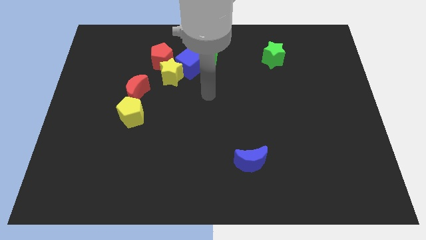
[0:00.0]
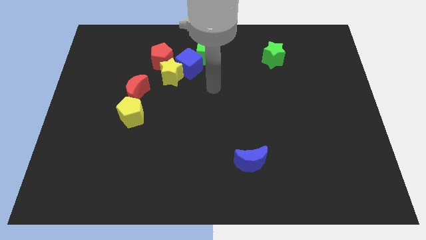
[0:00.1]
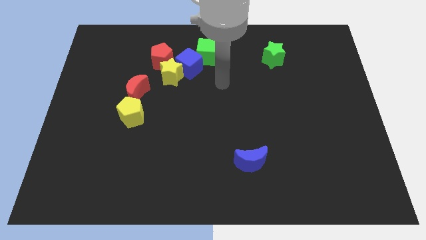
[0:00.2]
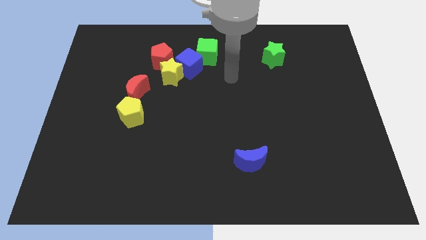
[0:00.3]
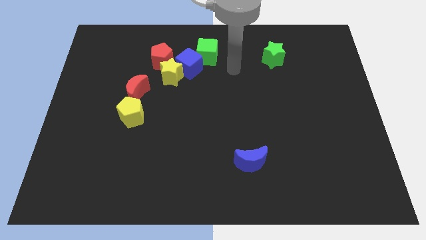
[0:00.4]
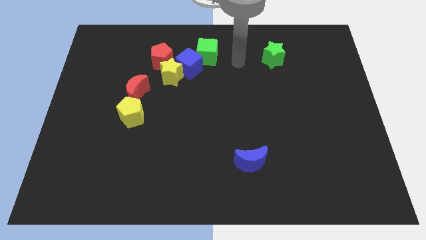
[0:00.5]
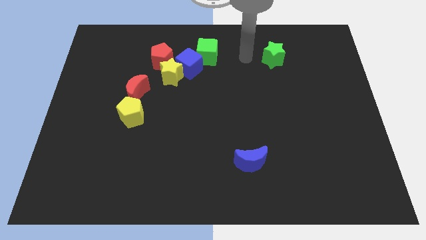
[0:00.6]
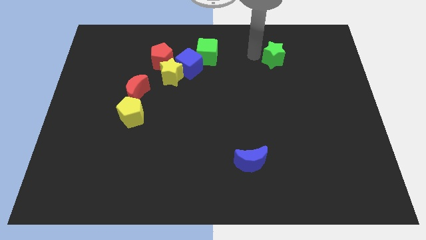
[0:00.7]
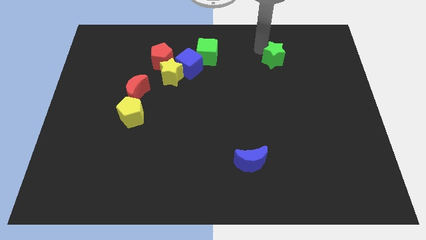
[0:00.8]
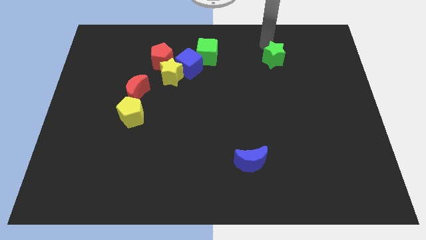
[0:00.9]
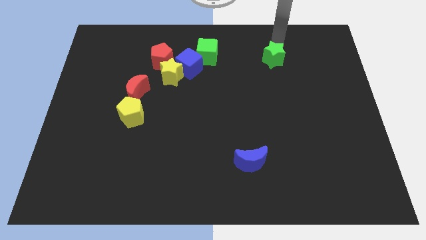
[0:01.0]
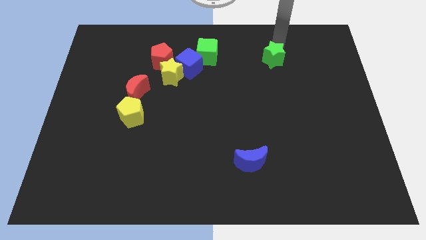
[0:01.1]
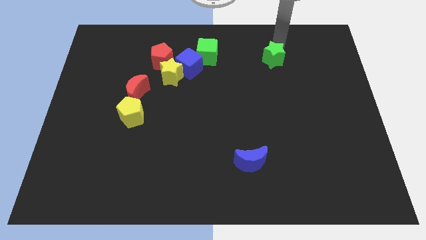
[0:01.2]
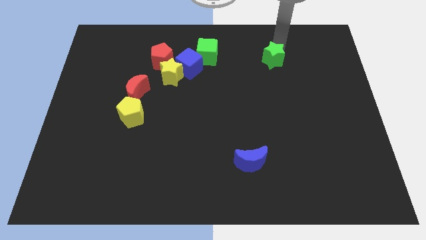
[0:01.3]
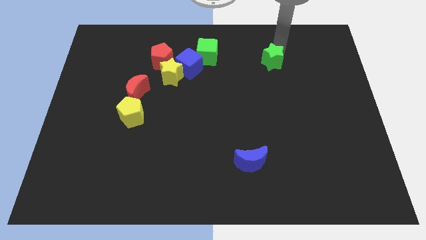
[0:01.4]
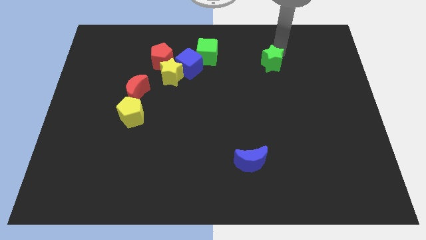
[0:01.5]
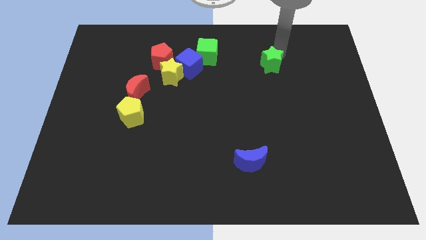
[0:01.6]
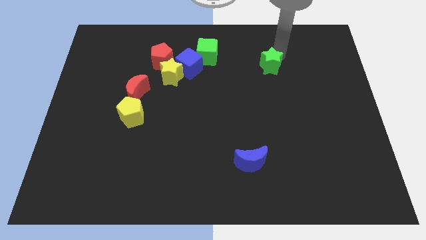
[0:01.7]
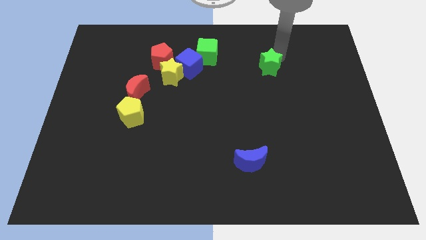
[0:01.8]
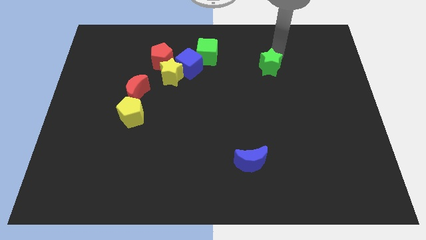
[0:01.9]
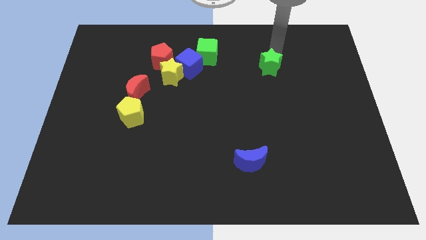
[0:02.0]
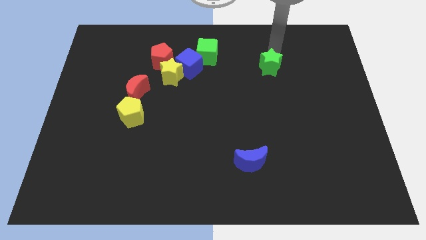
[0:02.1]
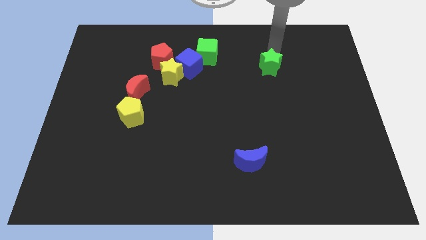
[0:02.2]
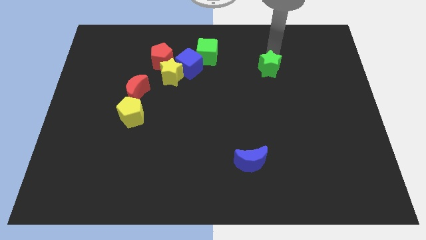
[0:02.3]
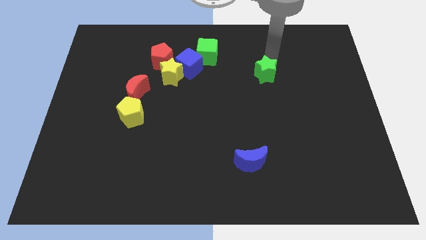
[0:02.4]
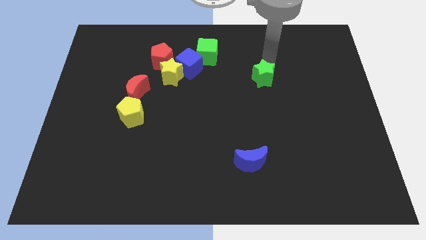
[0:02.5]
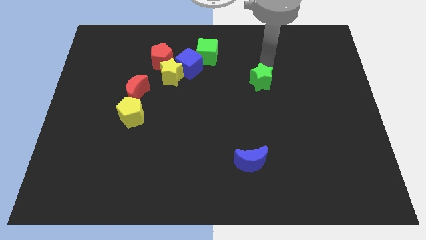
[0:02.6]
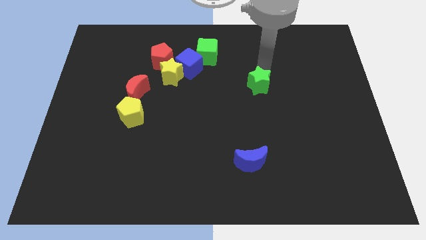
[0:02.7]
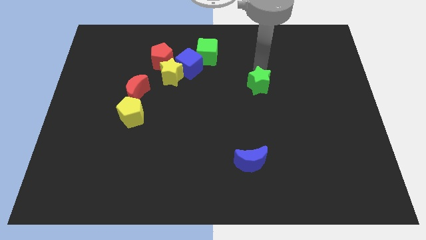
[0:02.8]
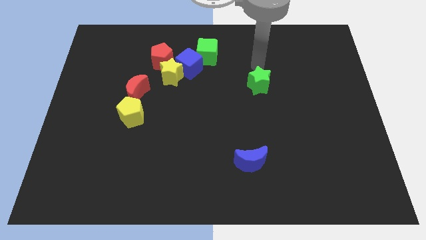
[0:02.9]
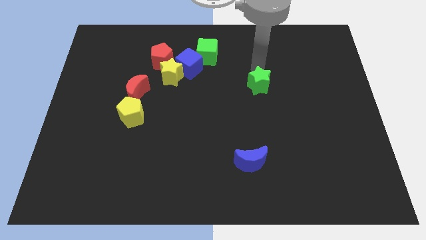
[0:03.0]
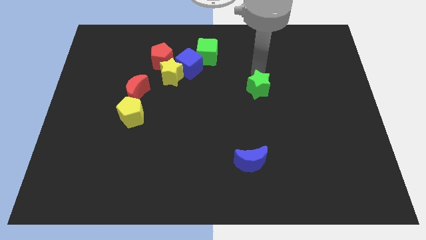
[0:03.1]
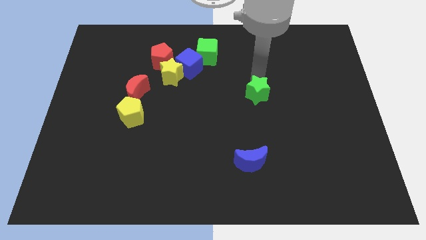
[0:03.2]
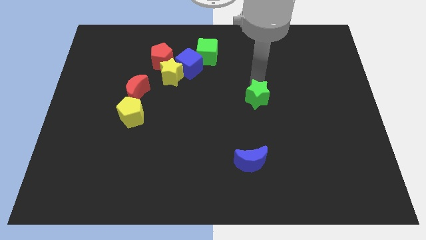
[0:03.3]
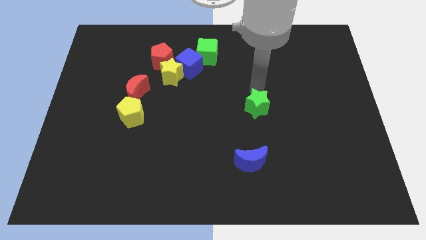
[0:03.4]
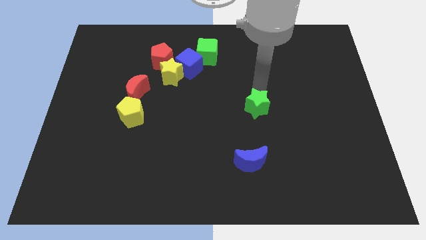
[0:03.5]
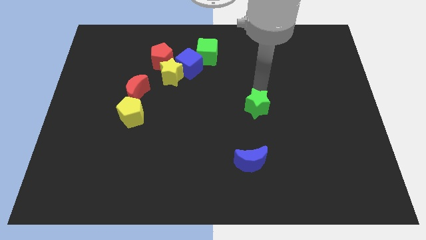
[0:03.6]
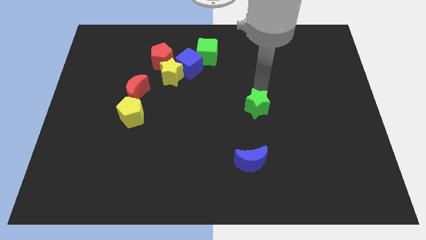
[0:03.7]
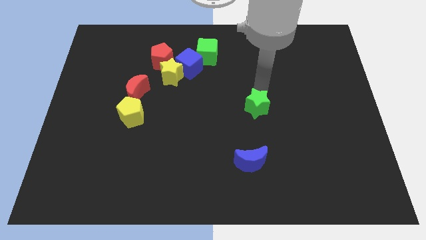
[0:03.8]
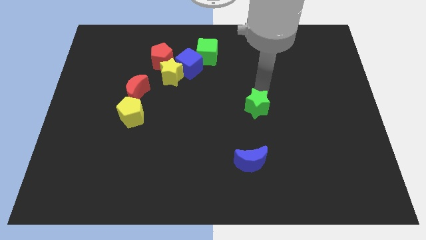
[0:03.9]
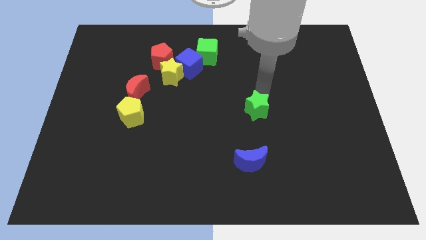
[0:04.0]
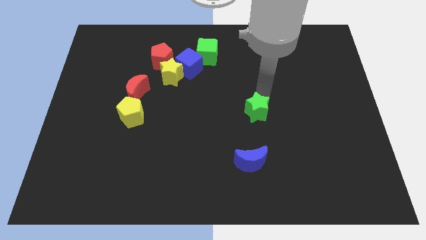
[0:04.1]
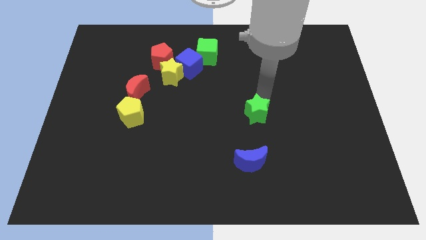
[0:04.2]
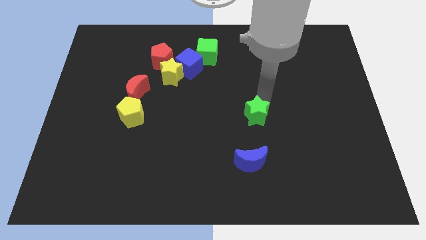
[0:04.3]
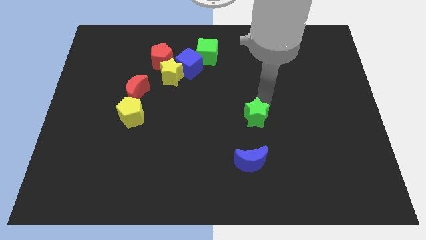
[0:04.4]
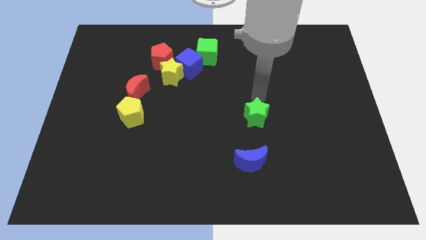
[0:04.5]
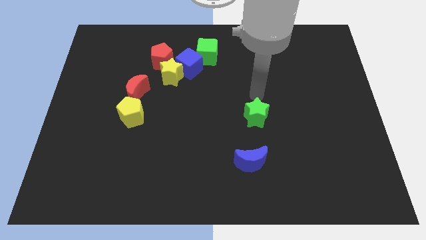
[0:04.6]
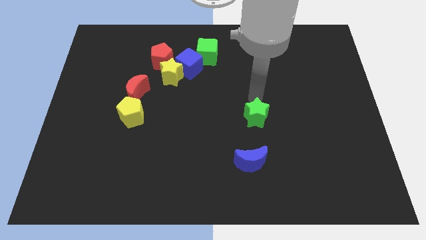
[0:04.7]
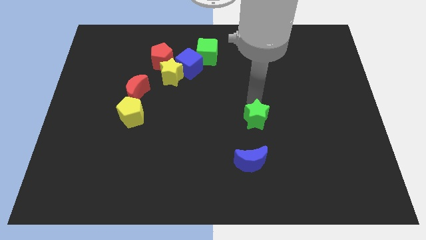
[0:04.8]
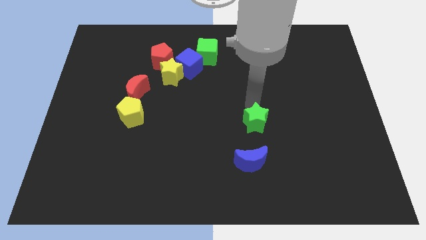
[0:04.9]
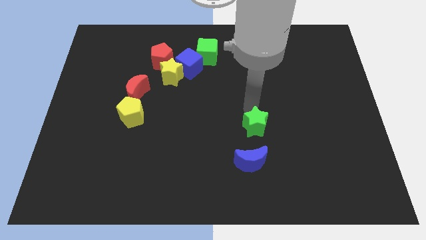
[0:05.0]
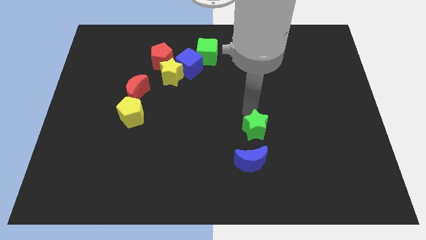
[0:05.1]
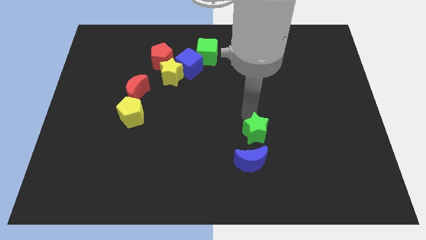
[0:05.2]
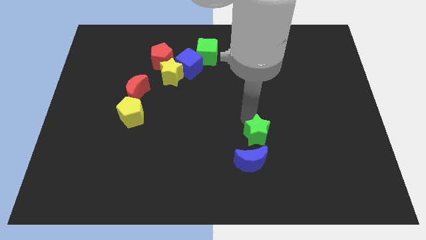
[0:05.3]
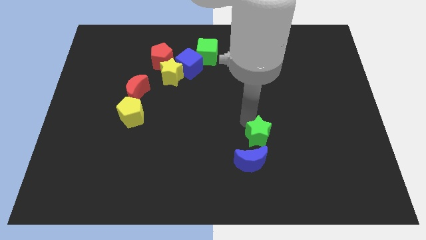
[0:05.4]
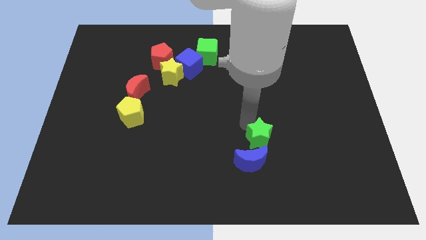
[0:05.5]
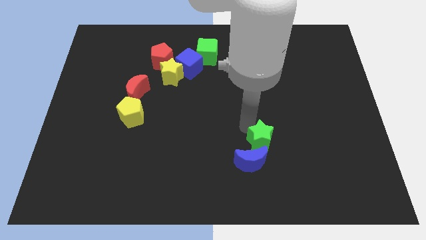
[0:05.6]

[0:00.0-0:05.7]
put the green star next to the blue moon

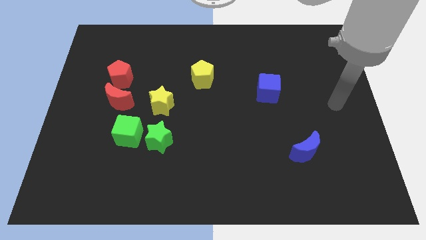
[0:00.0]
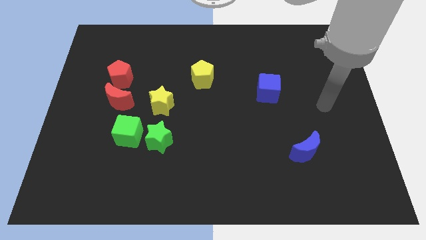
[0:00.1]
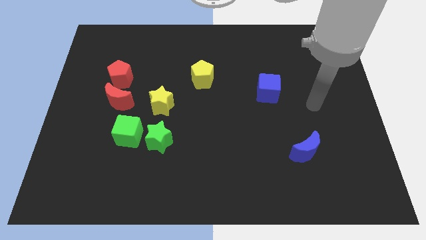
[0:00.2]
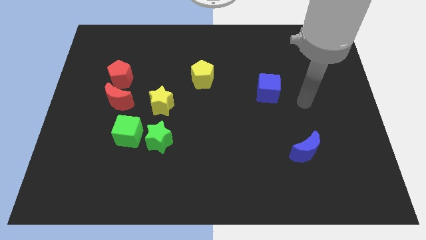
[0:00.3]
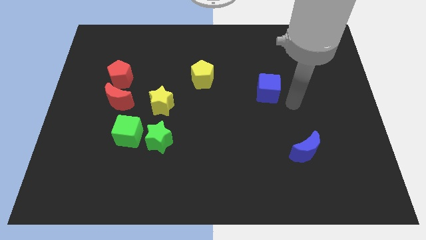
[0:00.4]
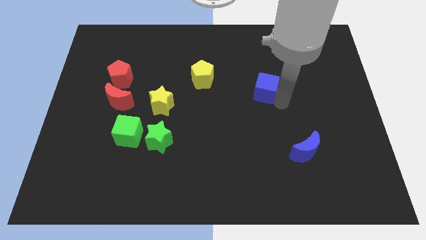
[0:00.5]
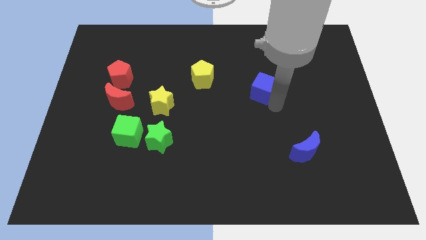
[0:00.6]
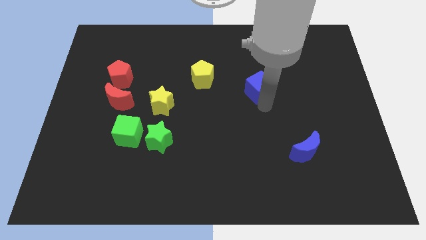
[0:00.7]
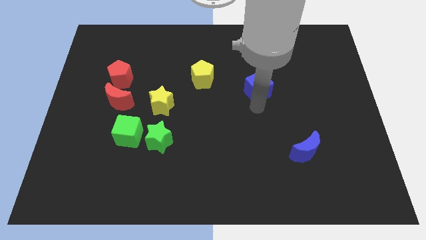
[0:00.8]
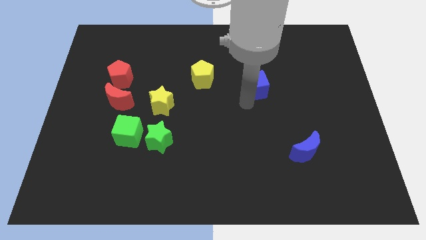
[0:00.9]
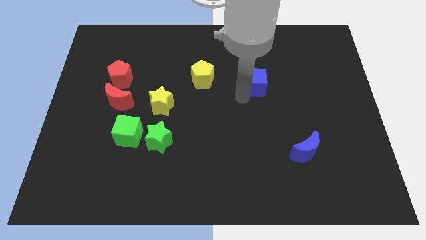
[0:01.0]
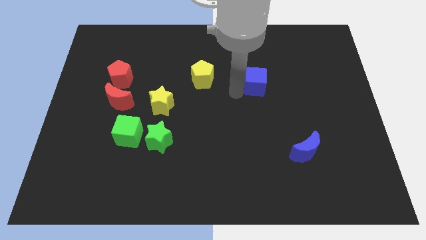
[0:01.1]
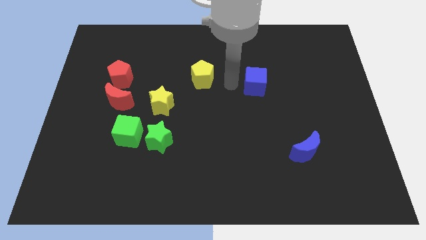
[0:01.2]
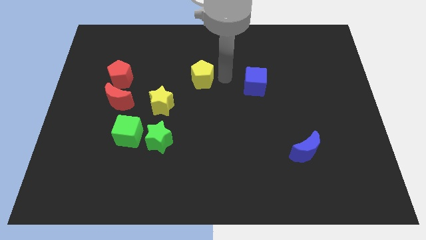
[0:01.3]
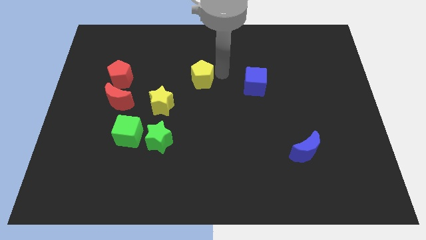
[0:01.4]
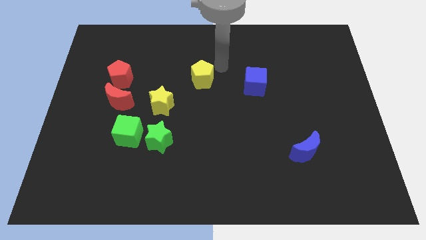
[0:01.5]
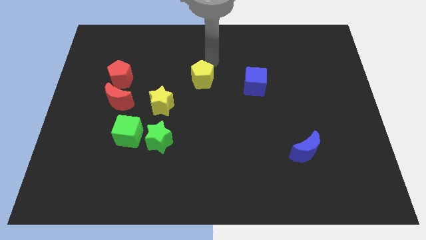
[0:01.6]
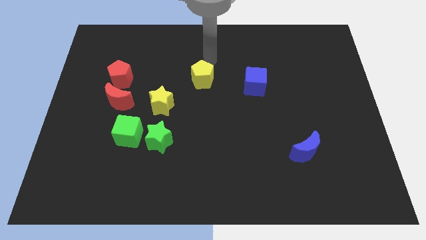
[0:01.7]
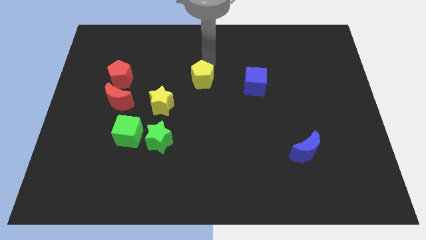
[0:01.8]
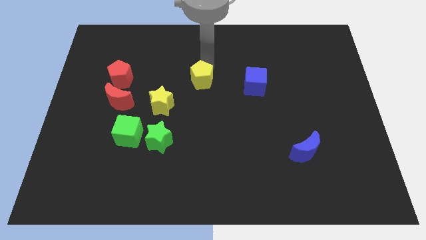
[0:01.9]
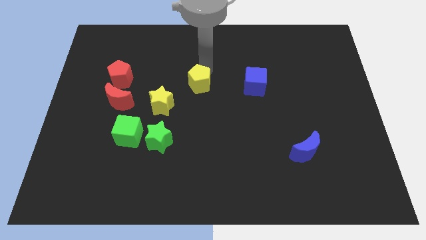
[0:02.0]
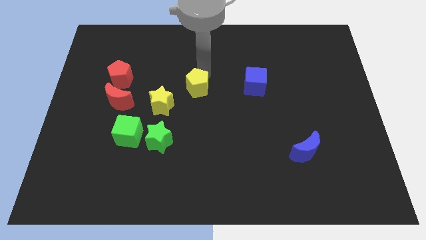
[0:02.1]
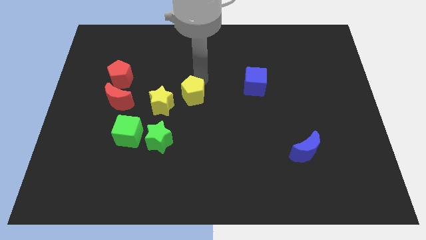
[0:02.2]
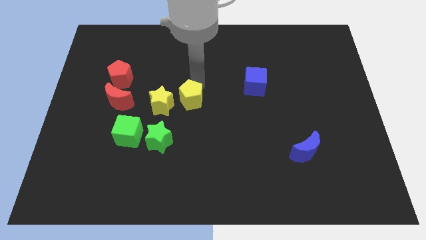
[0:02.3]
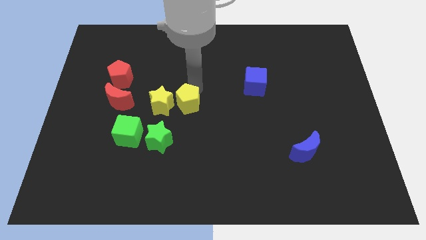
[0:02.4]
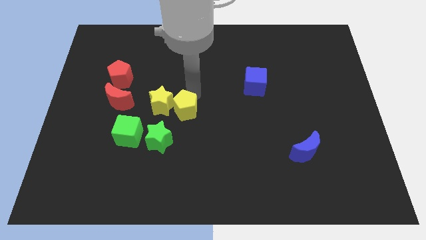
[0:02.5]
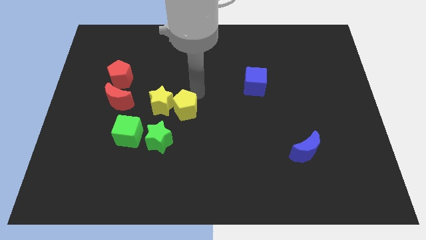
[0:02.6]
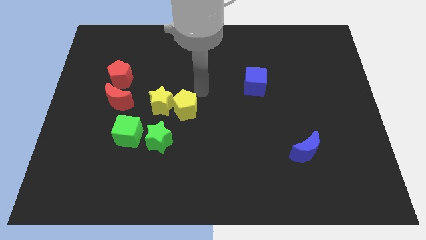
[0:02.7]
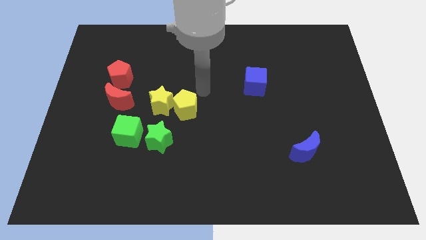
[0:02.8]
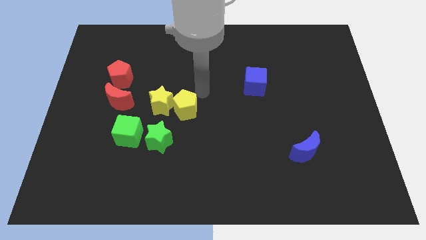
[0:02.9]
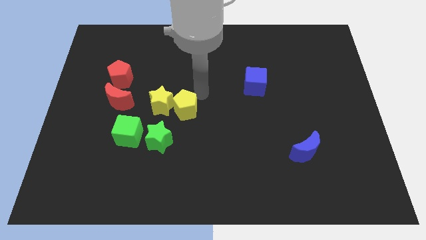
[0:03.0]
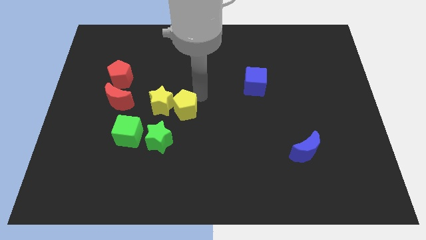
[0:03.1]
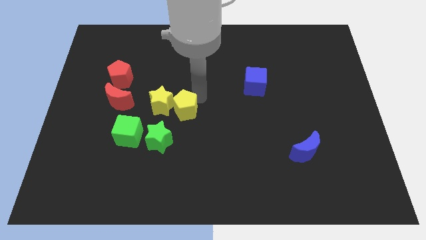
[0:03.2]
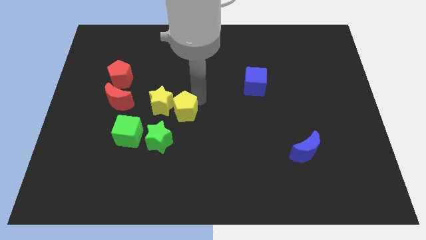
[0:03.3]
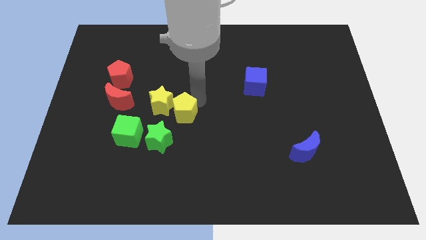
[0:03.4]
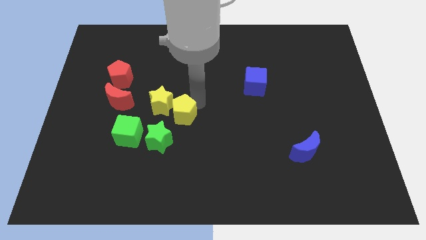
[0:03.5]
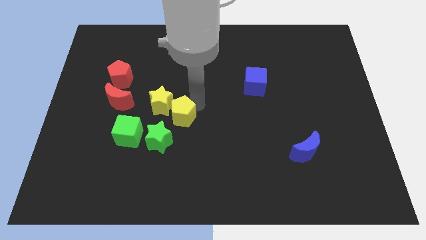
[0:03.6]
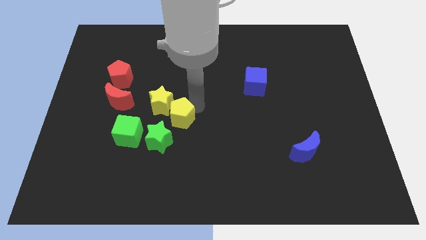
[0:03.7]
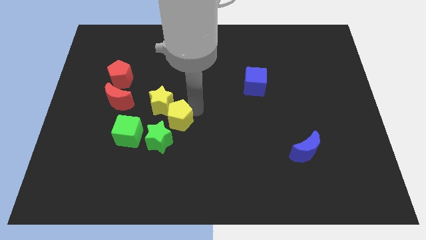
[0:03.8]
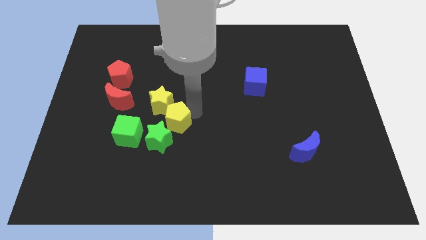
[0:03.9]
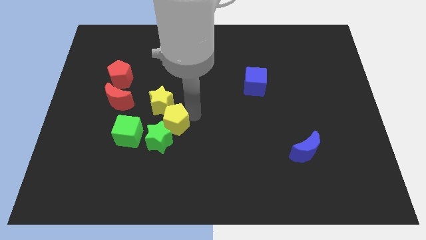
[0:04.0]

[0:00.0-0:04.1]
move the yellow pentagon to the green star
